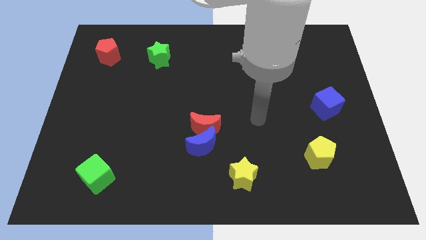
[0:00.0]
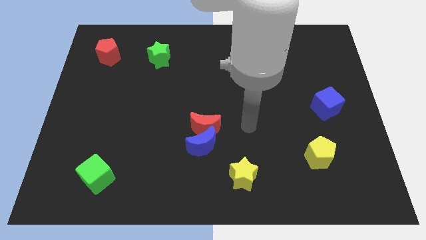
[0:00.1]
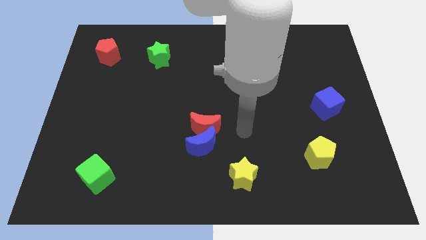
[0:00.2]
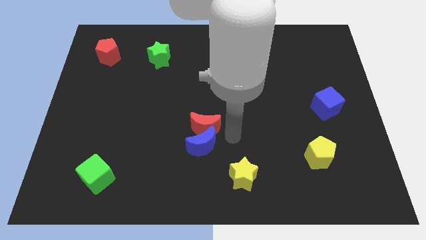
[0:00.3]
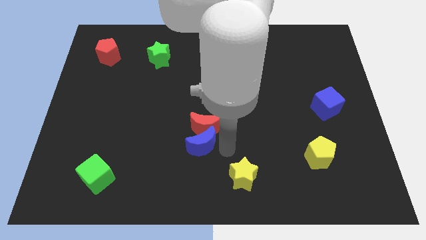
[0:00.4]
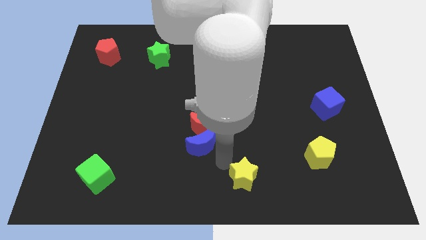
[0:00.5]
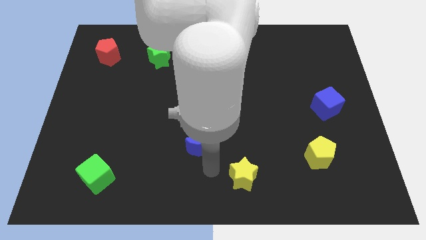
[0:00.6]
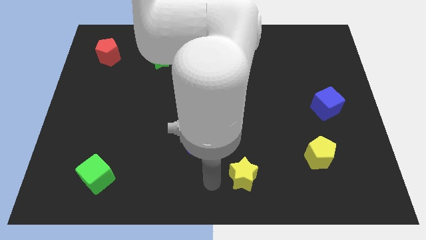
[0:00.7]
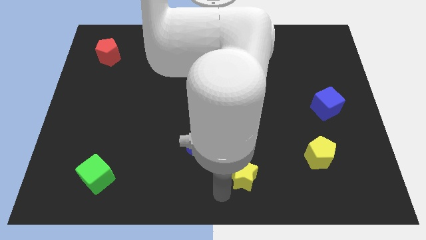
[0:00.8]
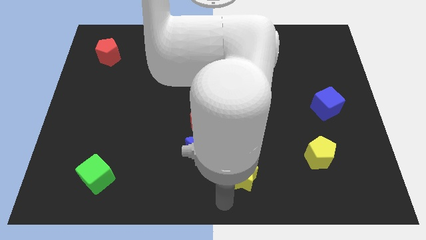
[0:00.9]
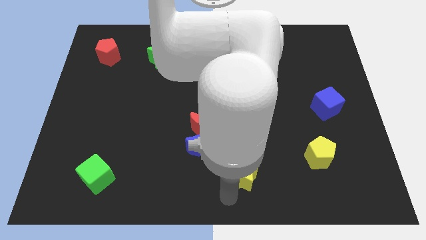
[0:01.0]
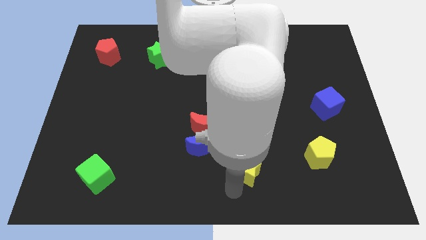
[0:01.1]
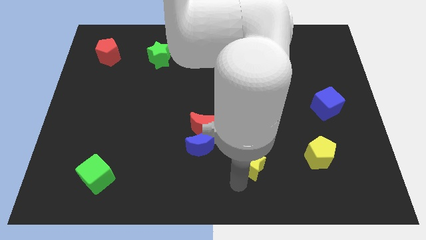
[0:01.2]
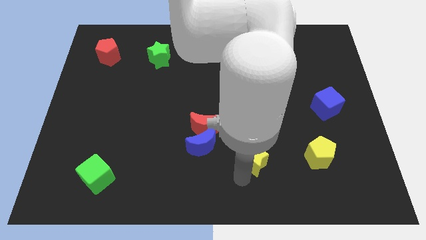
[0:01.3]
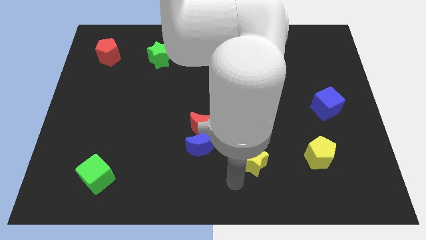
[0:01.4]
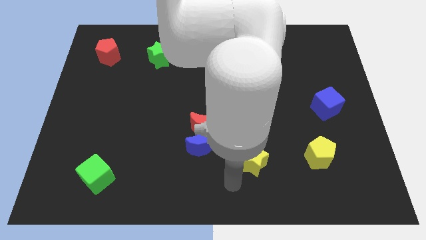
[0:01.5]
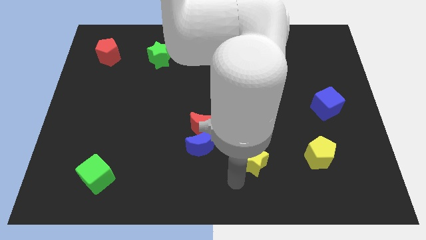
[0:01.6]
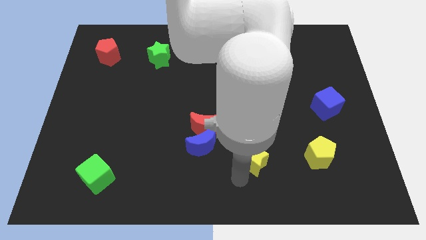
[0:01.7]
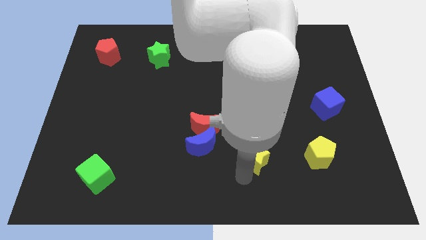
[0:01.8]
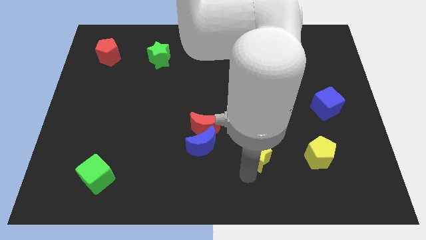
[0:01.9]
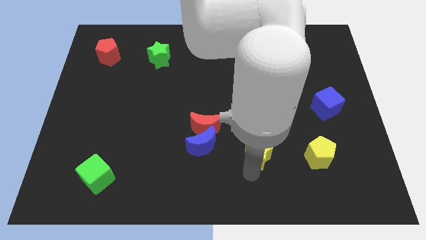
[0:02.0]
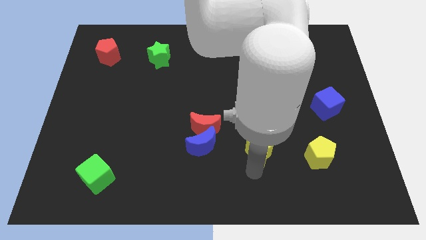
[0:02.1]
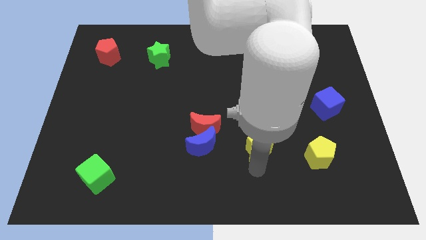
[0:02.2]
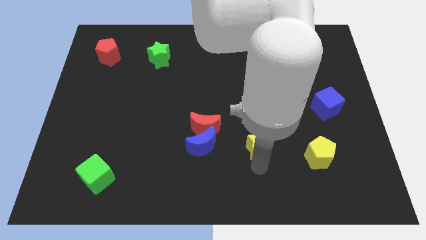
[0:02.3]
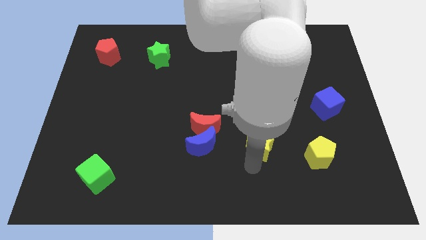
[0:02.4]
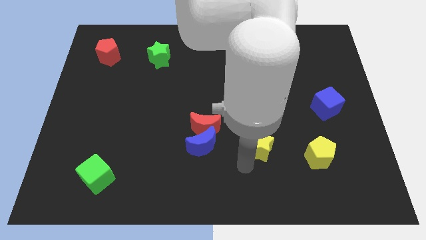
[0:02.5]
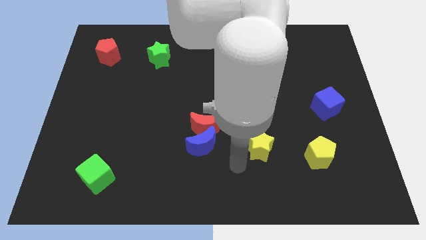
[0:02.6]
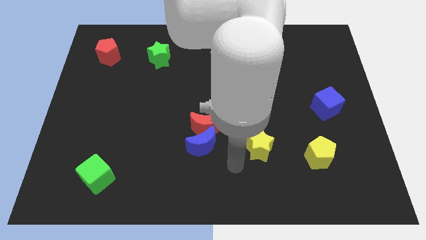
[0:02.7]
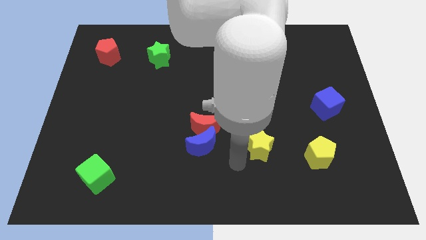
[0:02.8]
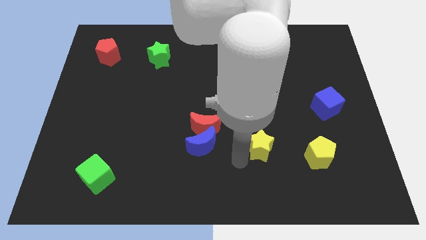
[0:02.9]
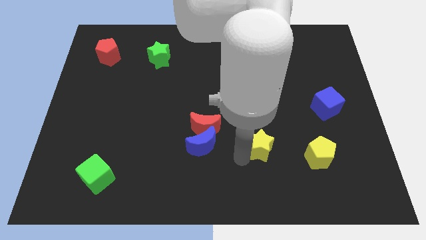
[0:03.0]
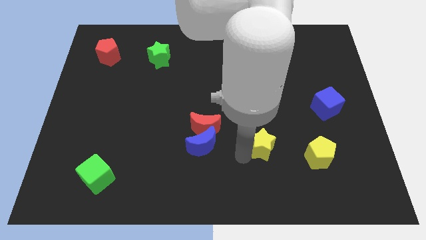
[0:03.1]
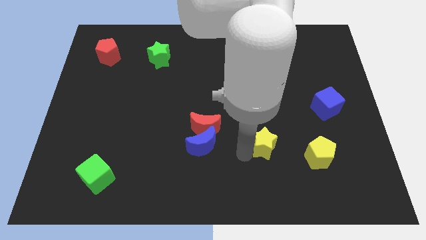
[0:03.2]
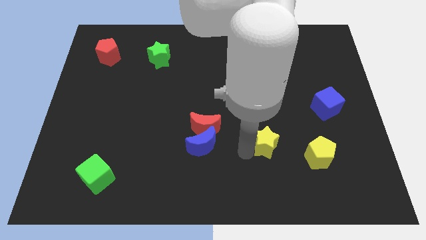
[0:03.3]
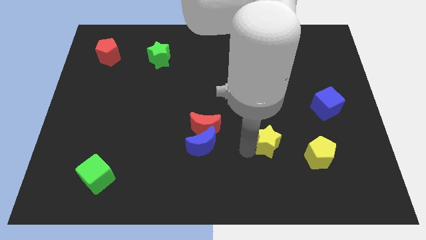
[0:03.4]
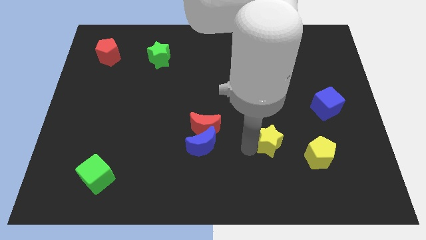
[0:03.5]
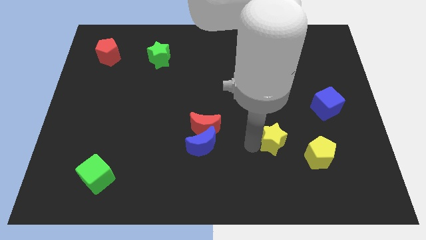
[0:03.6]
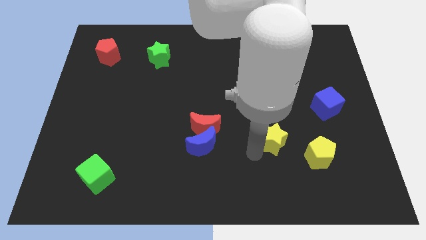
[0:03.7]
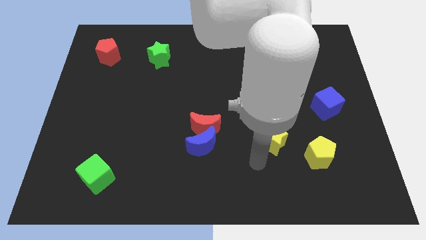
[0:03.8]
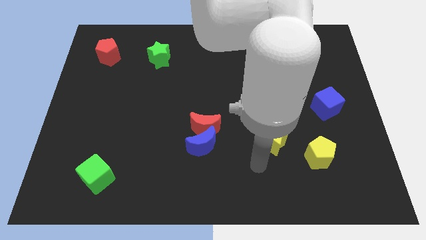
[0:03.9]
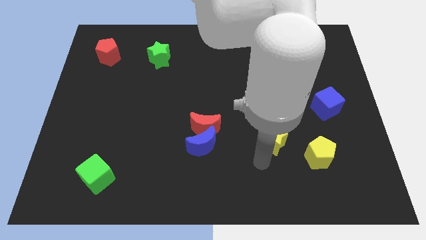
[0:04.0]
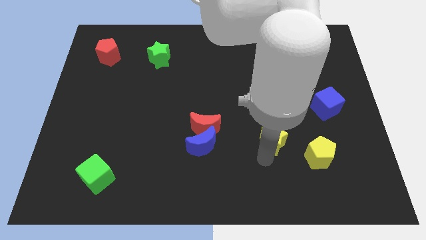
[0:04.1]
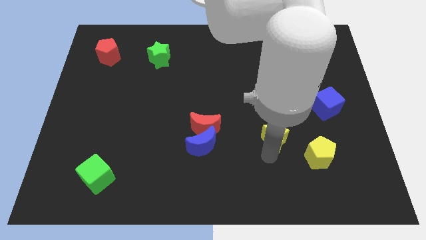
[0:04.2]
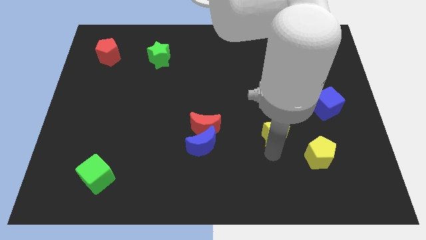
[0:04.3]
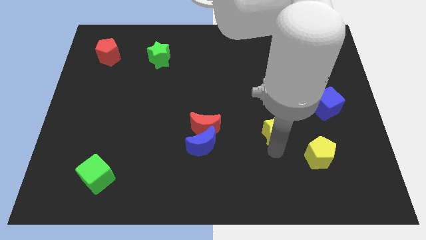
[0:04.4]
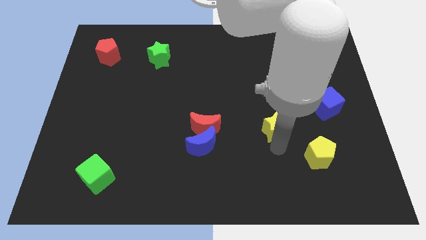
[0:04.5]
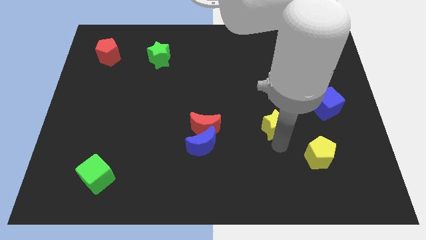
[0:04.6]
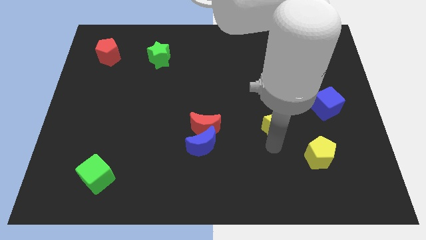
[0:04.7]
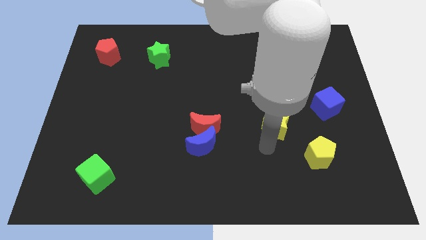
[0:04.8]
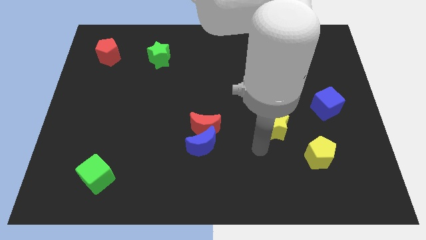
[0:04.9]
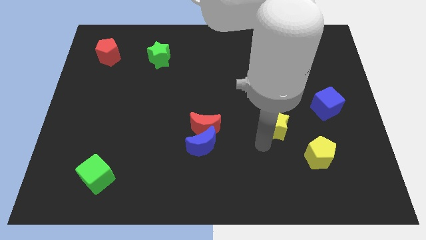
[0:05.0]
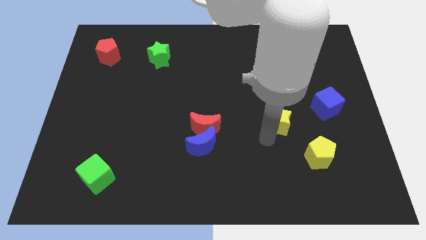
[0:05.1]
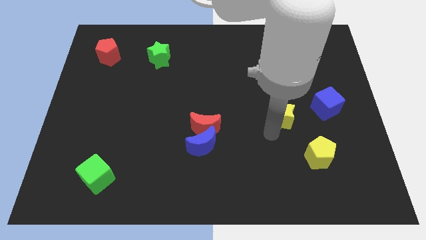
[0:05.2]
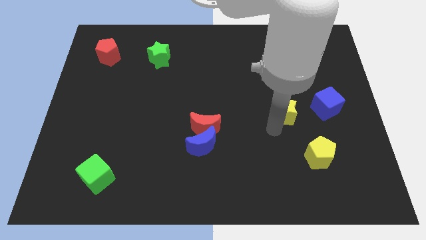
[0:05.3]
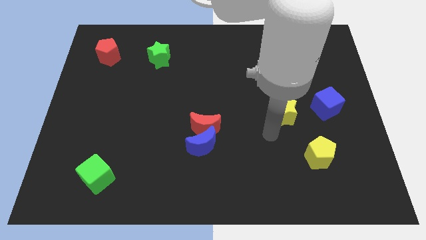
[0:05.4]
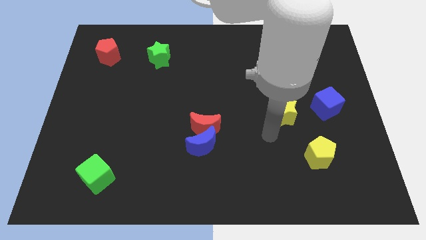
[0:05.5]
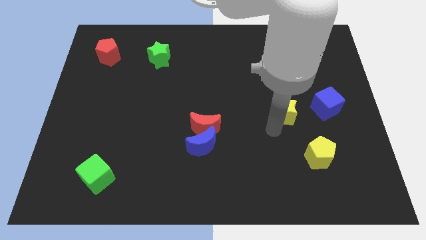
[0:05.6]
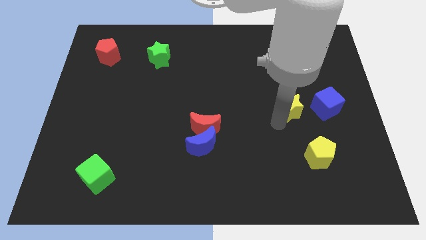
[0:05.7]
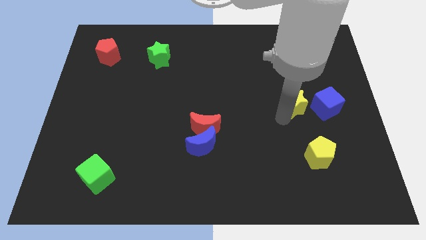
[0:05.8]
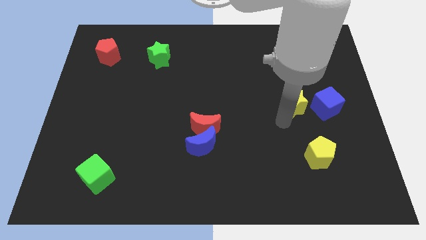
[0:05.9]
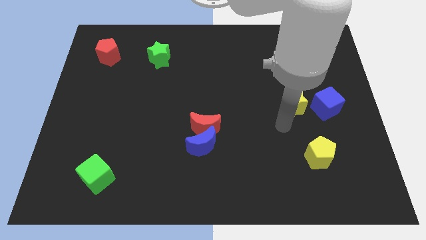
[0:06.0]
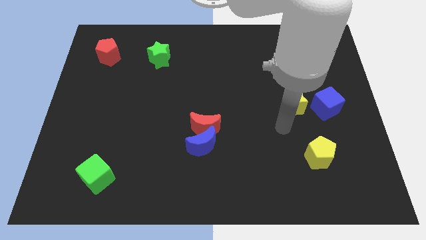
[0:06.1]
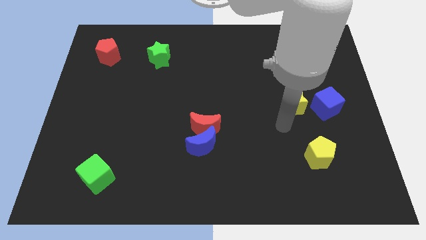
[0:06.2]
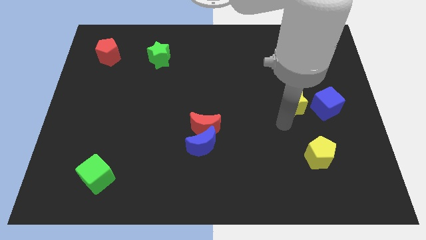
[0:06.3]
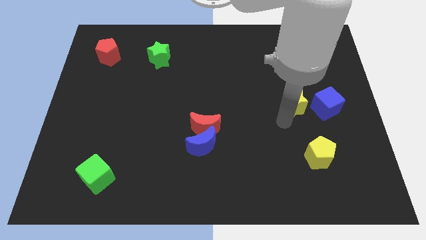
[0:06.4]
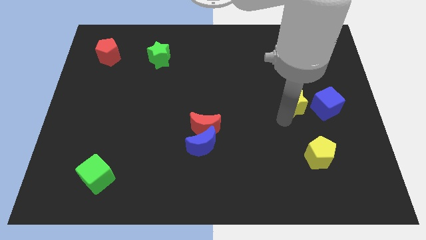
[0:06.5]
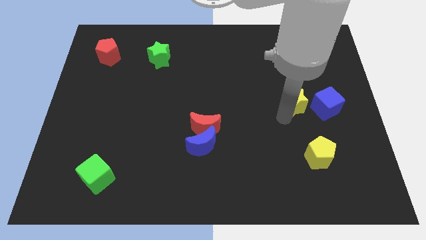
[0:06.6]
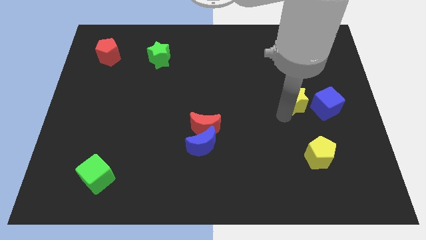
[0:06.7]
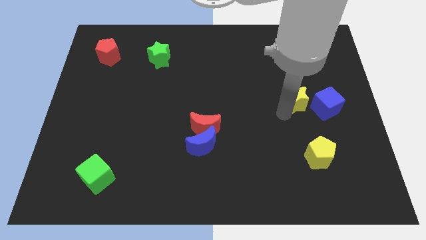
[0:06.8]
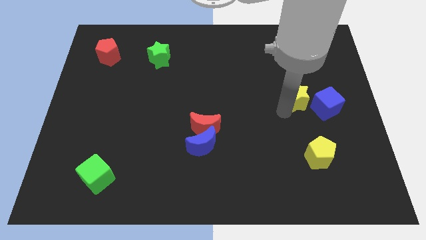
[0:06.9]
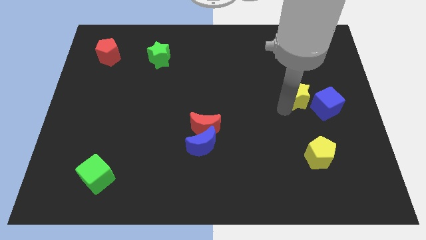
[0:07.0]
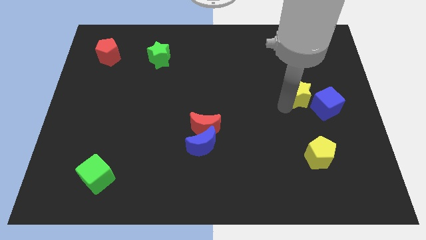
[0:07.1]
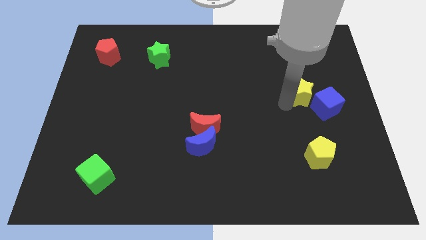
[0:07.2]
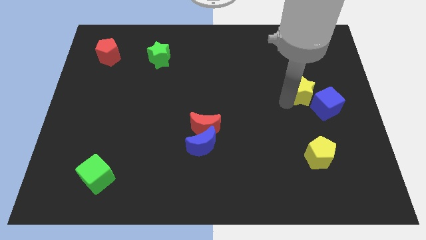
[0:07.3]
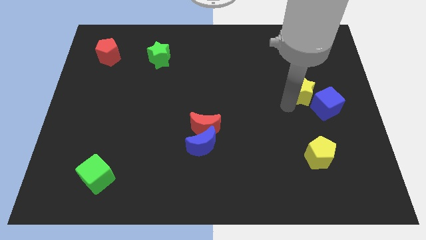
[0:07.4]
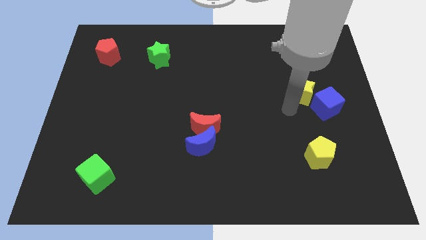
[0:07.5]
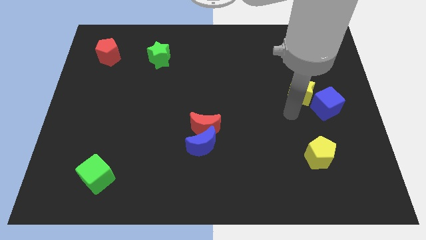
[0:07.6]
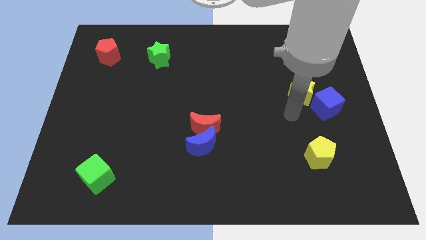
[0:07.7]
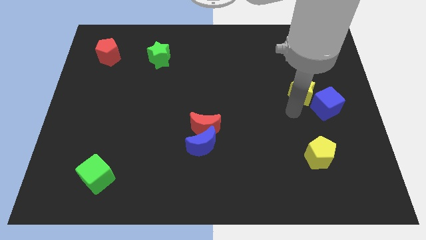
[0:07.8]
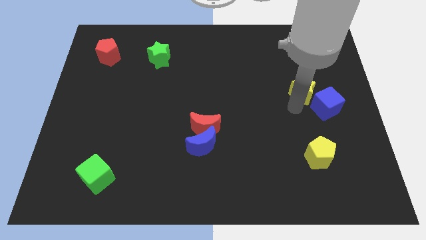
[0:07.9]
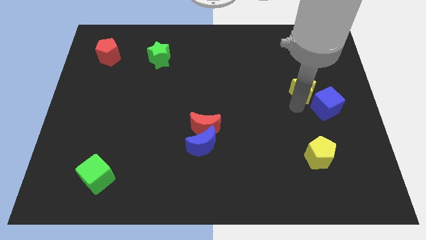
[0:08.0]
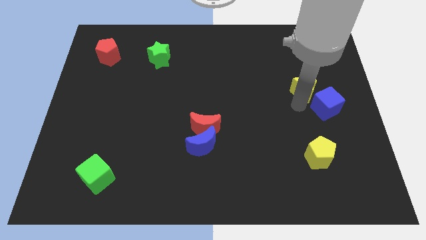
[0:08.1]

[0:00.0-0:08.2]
move the yellow star to the top side of the blue cube
